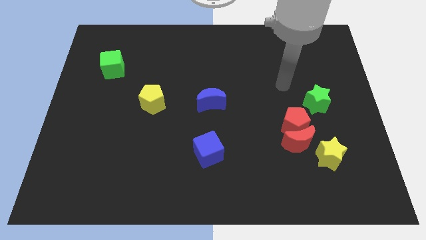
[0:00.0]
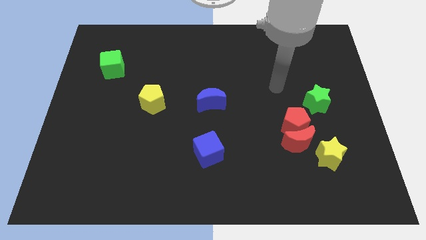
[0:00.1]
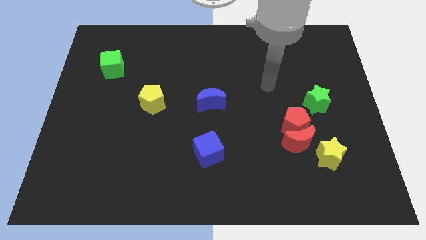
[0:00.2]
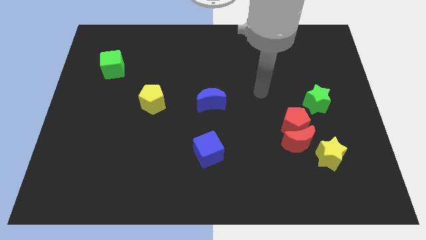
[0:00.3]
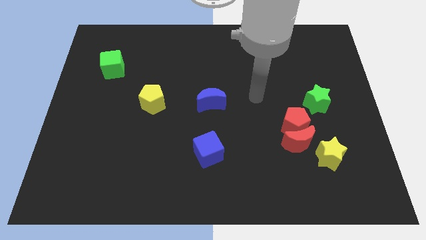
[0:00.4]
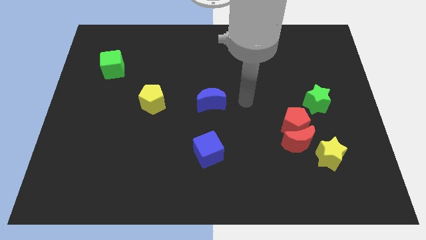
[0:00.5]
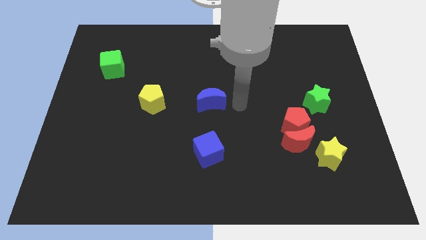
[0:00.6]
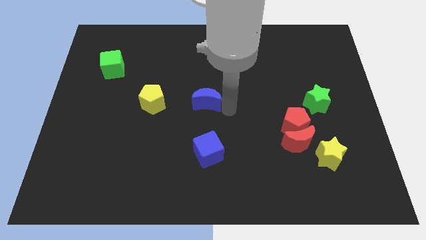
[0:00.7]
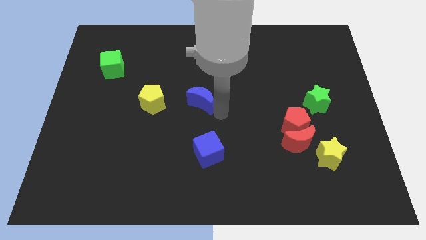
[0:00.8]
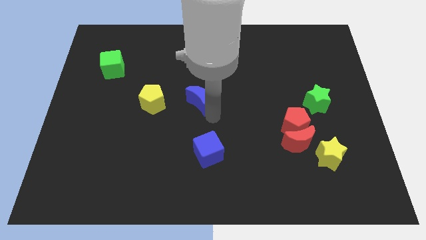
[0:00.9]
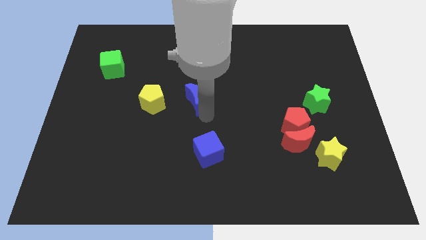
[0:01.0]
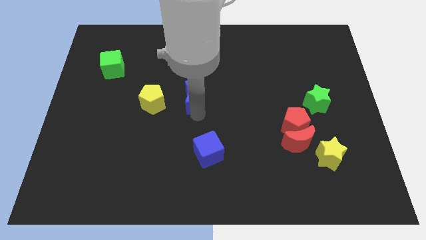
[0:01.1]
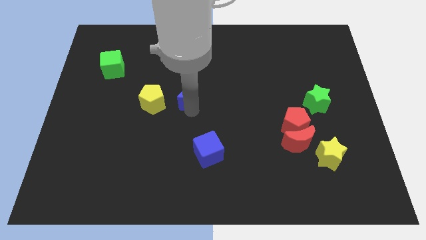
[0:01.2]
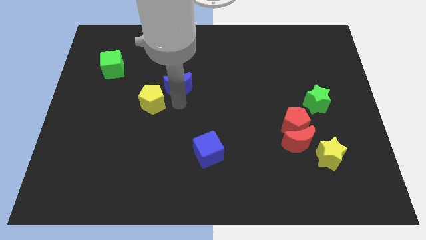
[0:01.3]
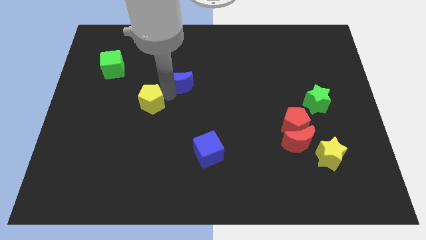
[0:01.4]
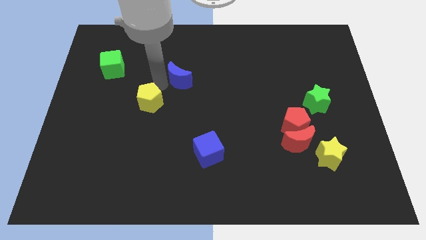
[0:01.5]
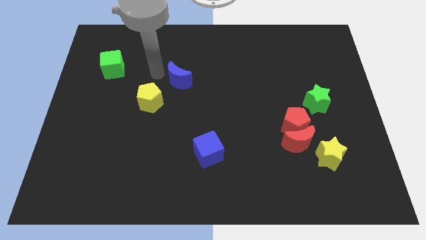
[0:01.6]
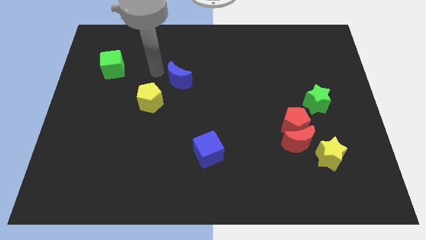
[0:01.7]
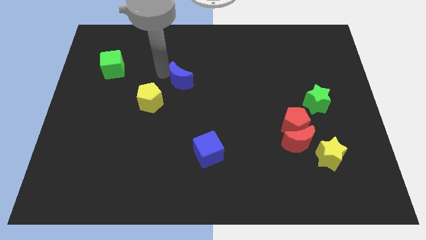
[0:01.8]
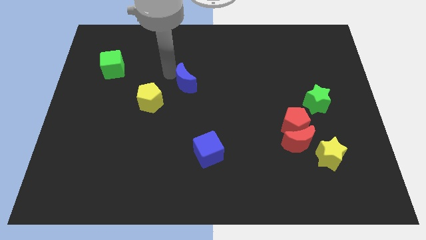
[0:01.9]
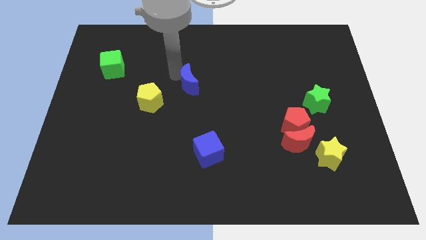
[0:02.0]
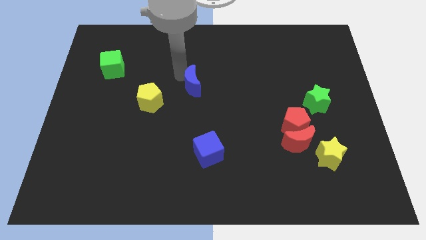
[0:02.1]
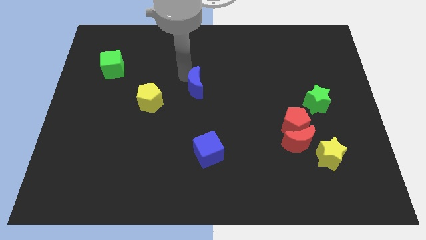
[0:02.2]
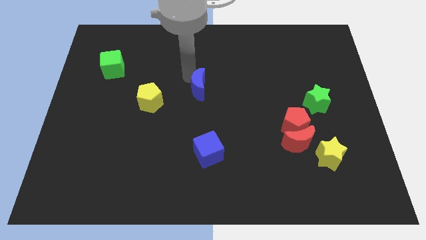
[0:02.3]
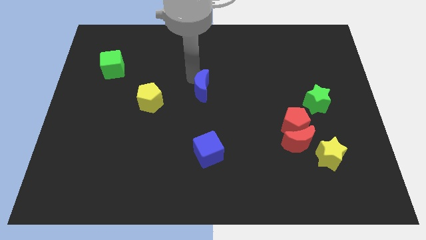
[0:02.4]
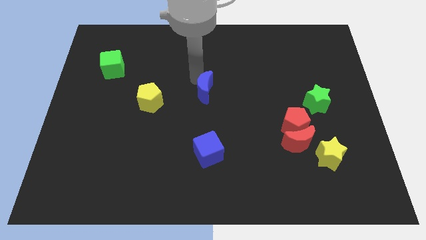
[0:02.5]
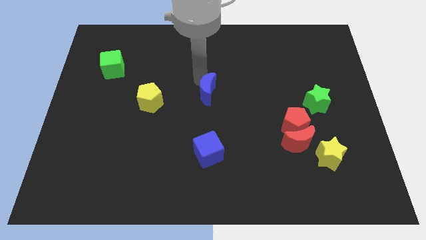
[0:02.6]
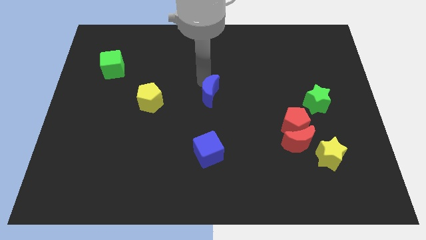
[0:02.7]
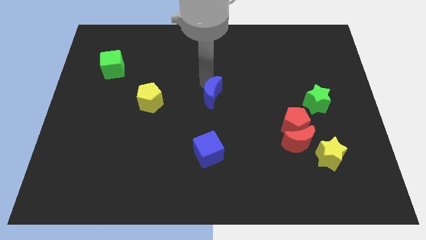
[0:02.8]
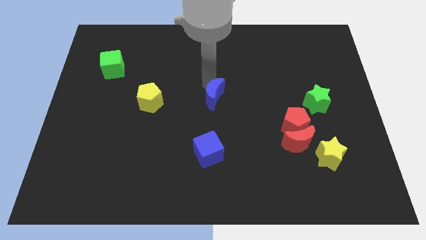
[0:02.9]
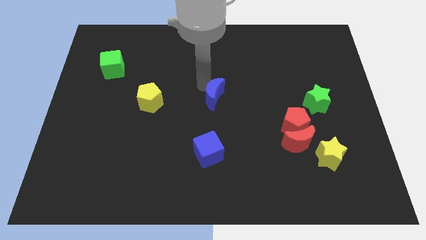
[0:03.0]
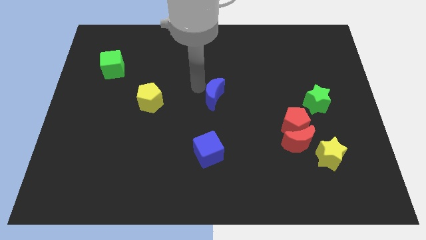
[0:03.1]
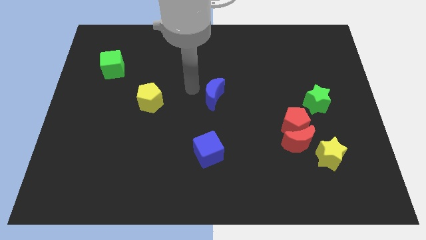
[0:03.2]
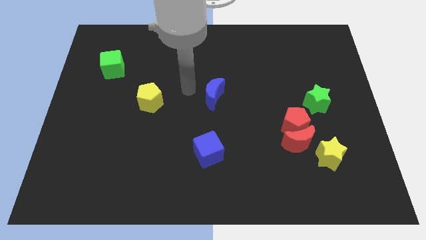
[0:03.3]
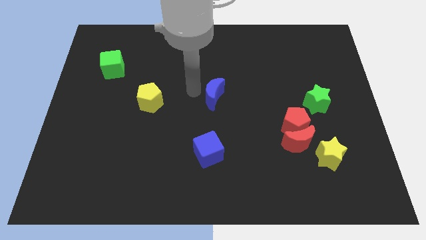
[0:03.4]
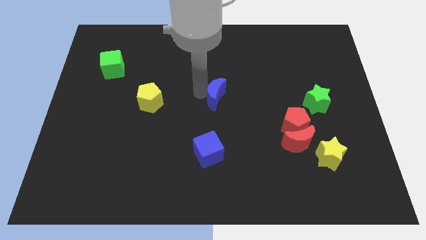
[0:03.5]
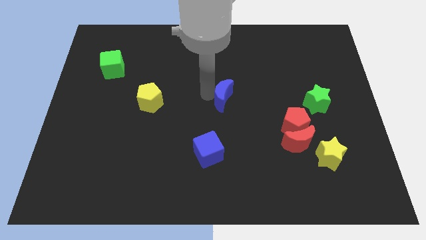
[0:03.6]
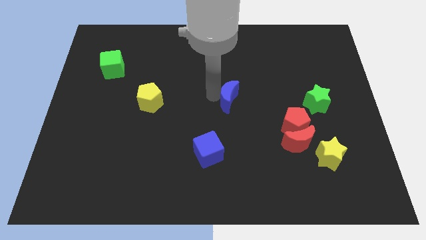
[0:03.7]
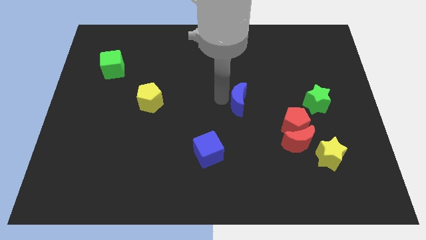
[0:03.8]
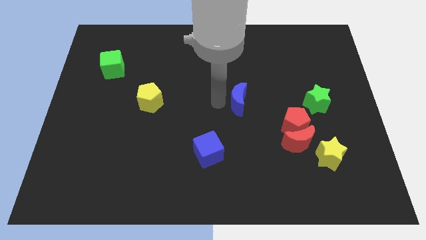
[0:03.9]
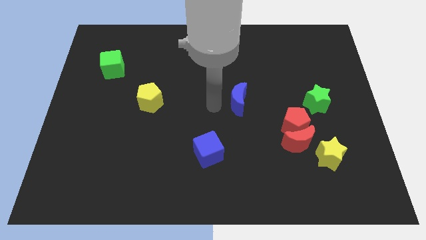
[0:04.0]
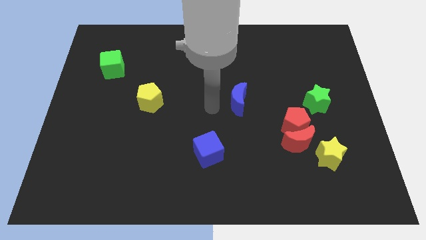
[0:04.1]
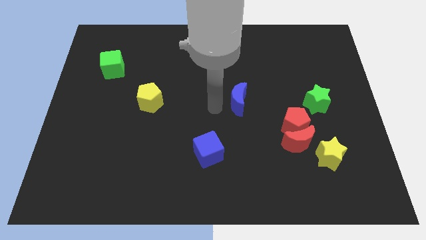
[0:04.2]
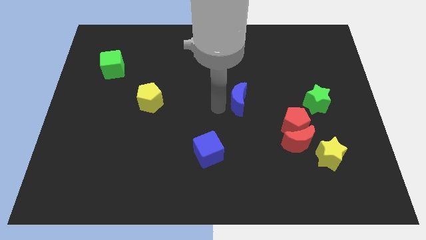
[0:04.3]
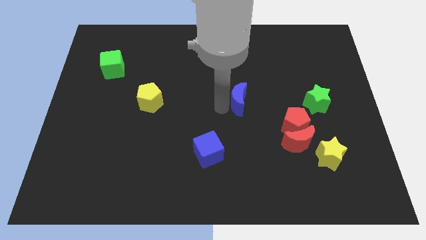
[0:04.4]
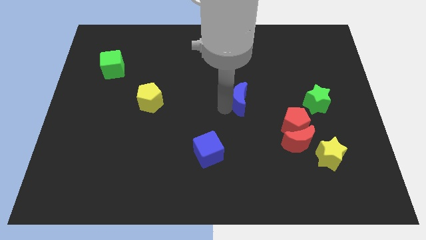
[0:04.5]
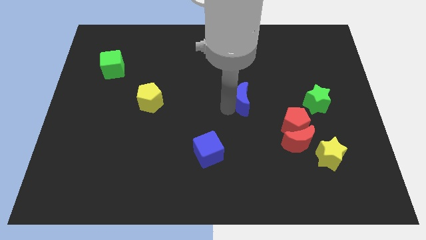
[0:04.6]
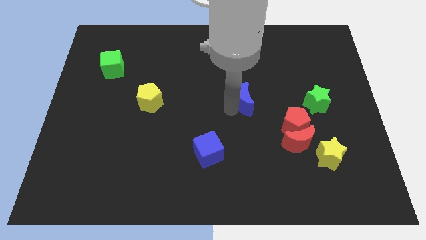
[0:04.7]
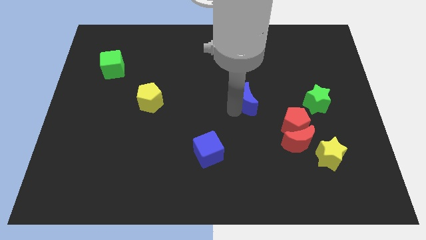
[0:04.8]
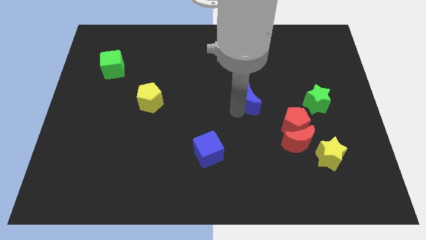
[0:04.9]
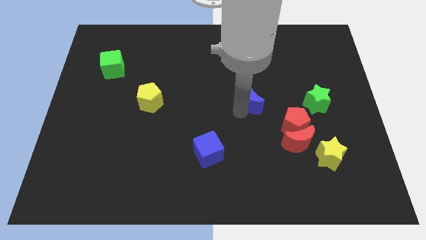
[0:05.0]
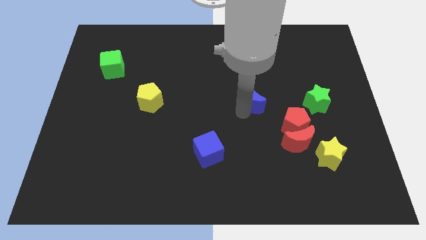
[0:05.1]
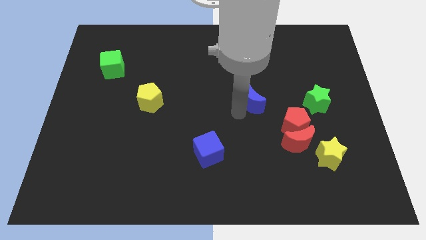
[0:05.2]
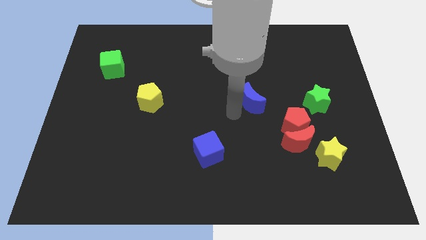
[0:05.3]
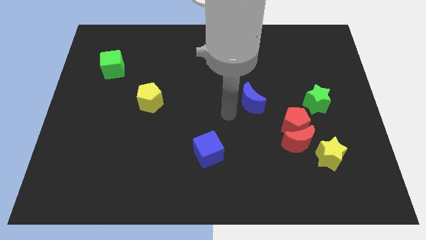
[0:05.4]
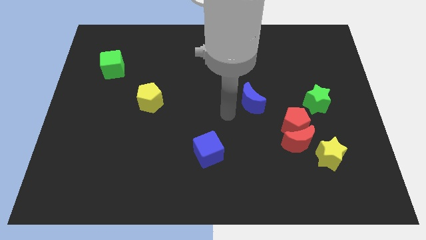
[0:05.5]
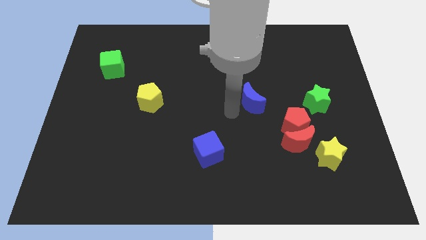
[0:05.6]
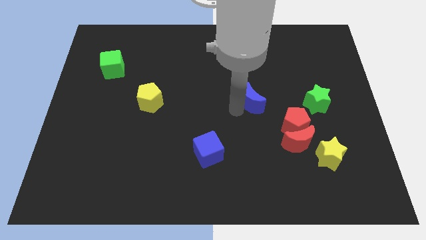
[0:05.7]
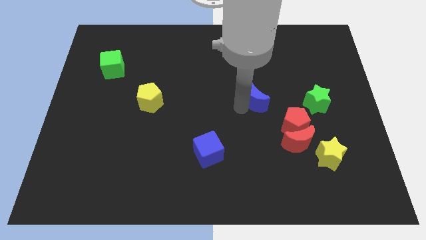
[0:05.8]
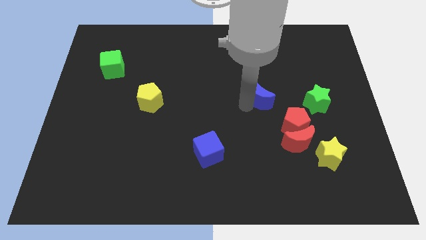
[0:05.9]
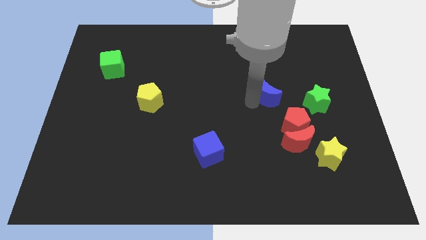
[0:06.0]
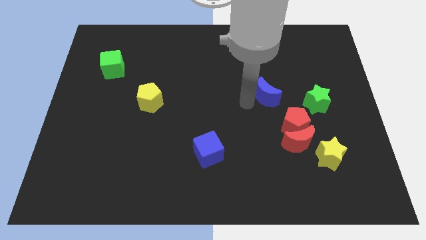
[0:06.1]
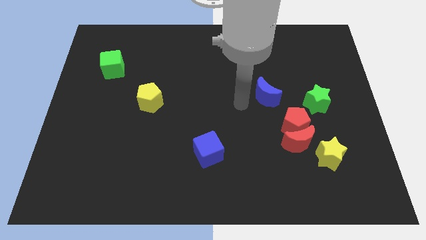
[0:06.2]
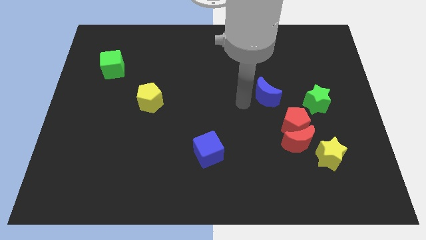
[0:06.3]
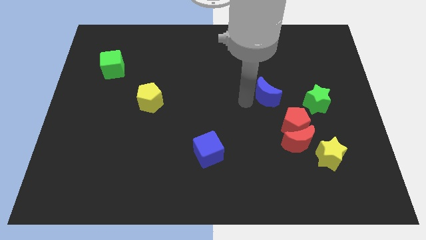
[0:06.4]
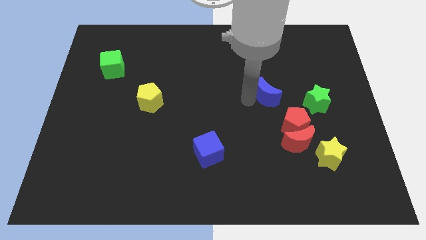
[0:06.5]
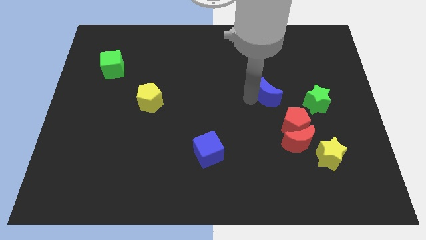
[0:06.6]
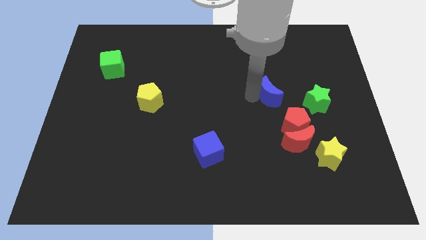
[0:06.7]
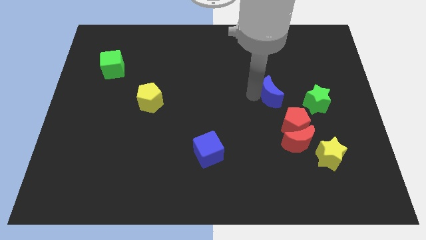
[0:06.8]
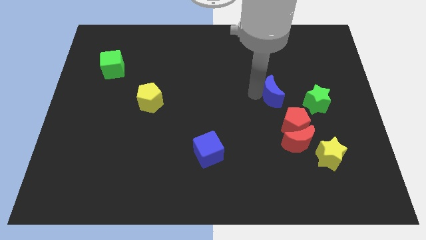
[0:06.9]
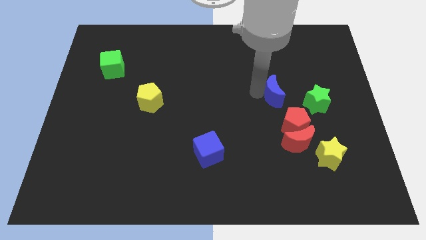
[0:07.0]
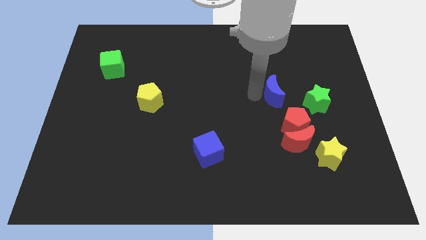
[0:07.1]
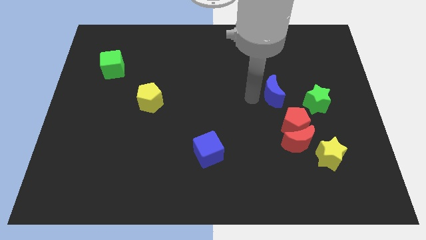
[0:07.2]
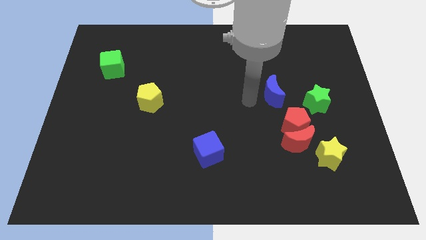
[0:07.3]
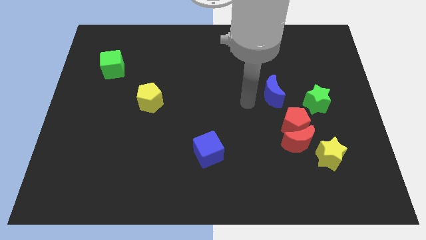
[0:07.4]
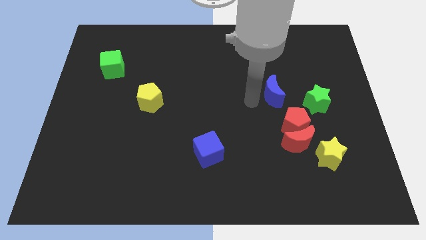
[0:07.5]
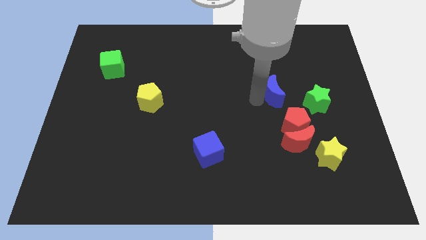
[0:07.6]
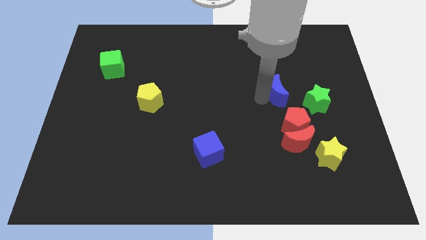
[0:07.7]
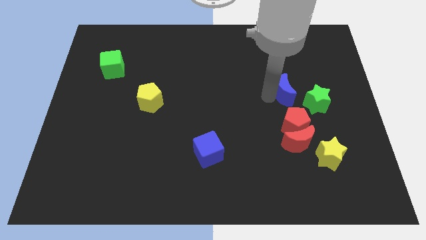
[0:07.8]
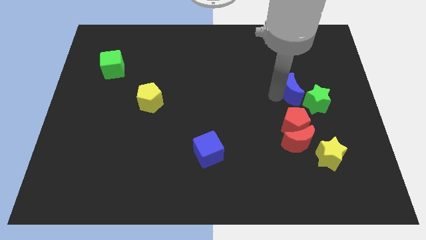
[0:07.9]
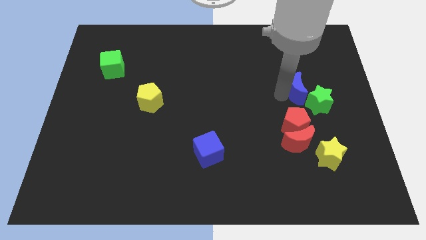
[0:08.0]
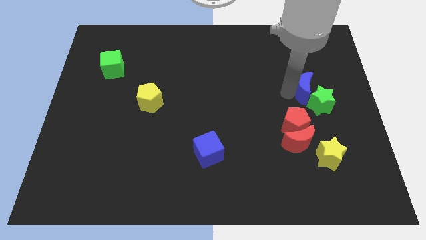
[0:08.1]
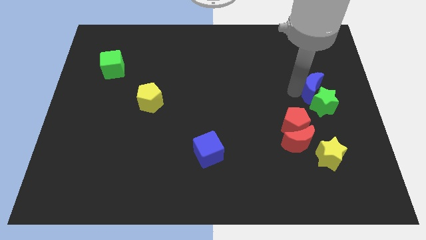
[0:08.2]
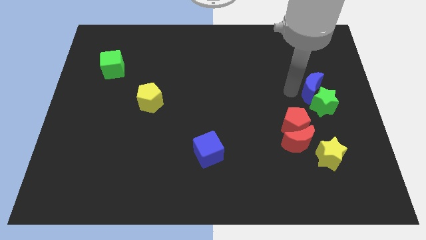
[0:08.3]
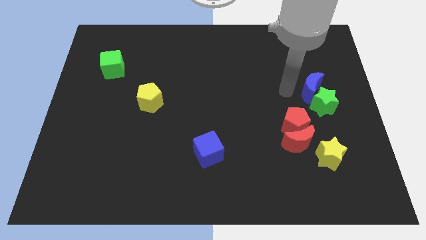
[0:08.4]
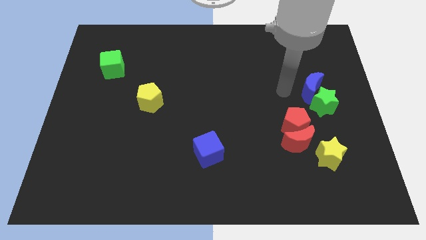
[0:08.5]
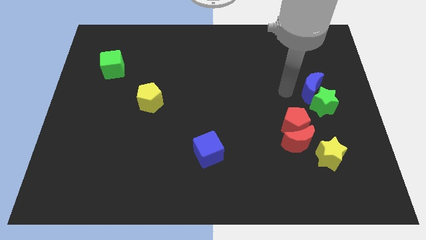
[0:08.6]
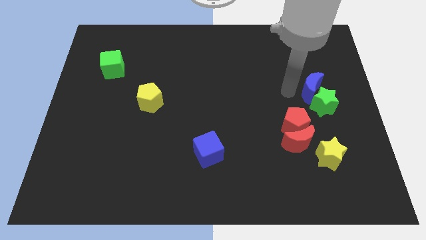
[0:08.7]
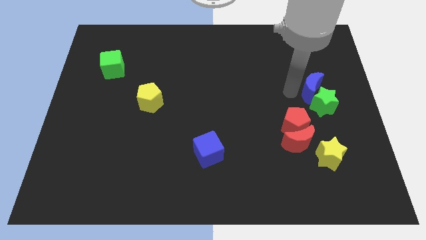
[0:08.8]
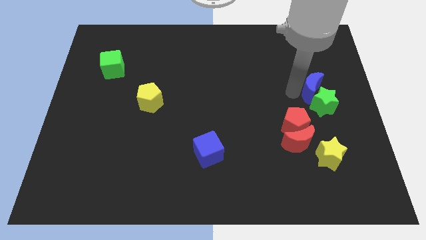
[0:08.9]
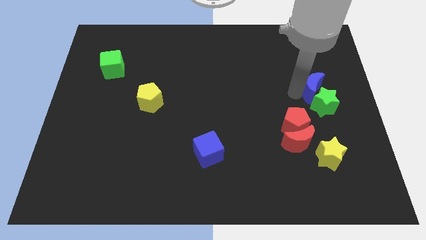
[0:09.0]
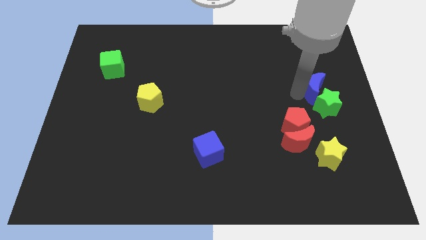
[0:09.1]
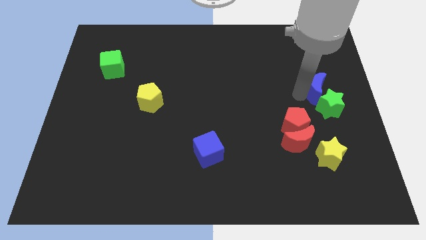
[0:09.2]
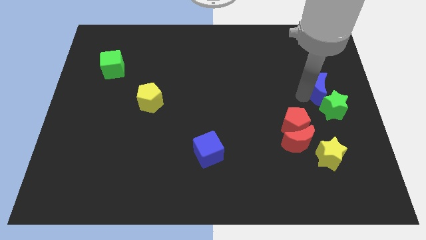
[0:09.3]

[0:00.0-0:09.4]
put the blue moon to the right side
